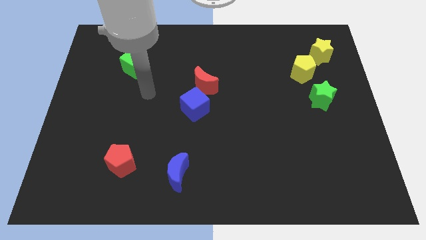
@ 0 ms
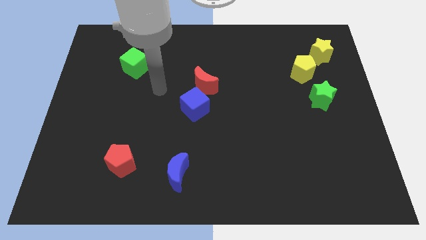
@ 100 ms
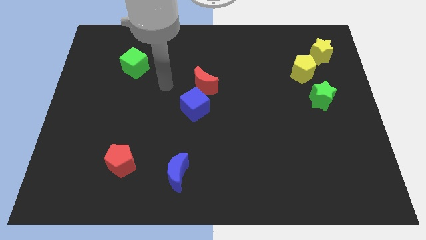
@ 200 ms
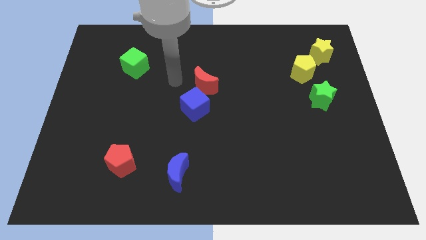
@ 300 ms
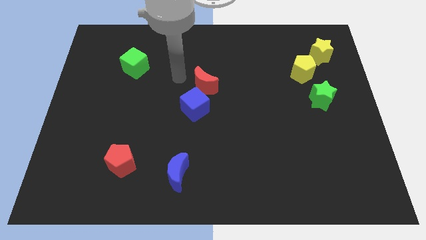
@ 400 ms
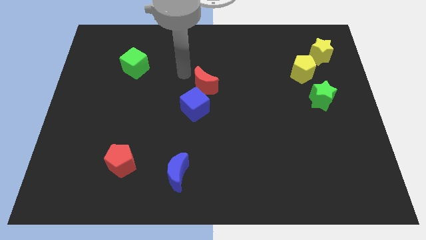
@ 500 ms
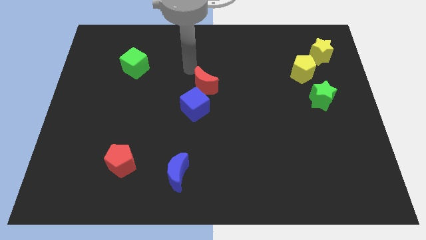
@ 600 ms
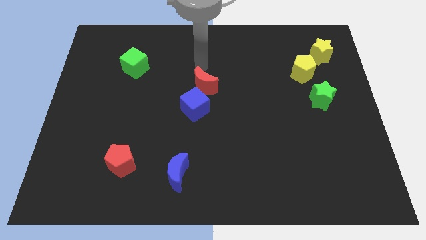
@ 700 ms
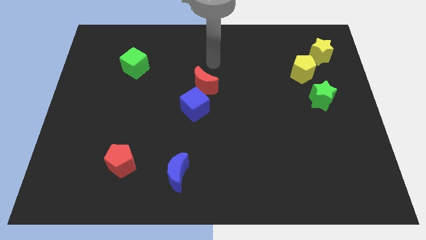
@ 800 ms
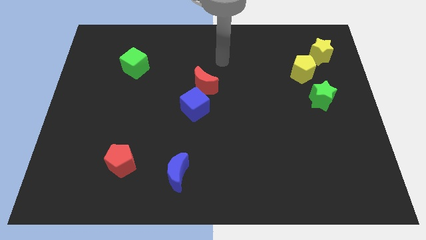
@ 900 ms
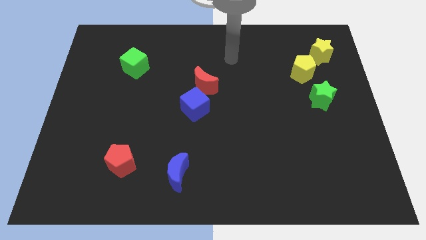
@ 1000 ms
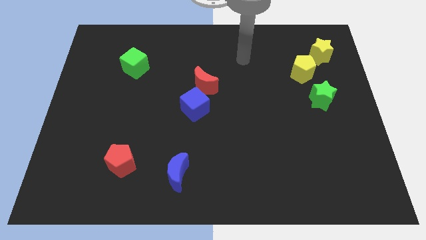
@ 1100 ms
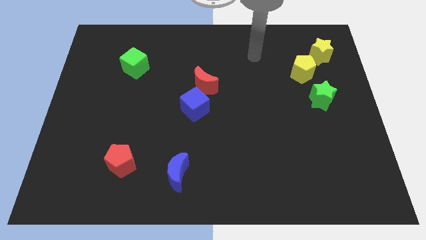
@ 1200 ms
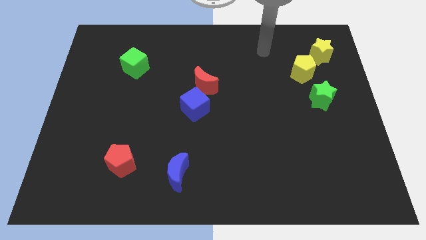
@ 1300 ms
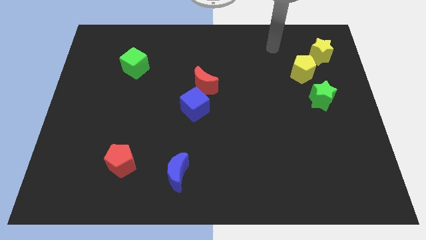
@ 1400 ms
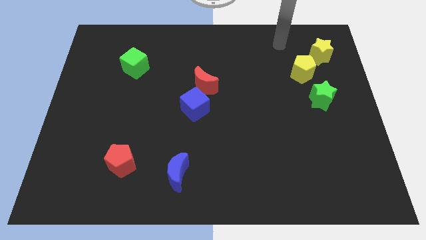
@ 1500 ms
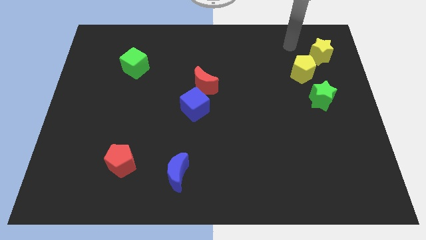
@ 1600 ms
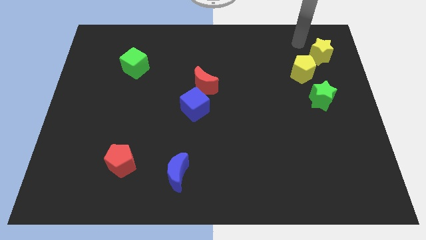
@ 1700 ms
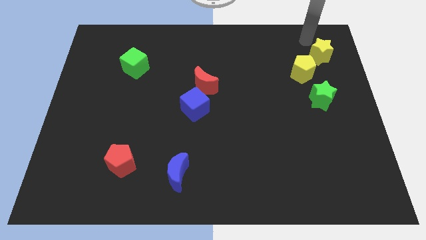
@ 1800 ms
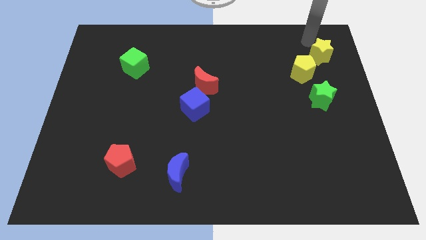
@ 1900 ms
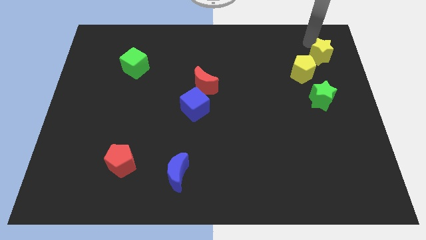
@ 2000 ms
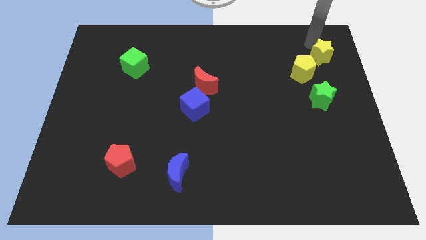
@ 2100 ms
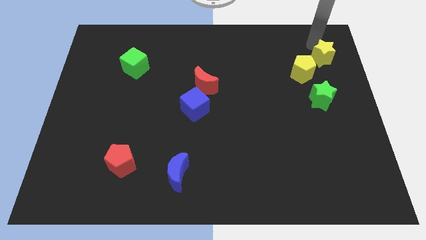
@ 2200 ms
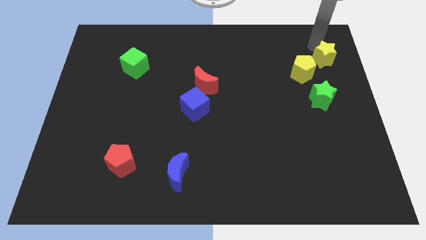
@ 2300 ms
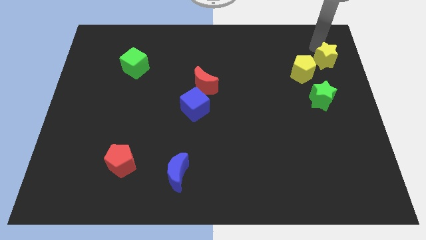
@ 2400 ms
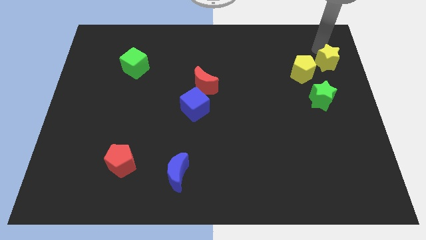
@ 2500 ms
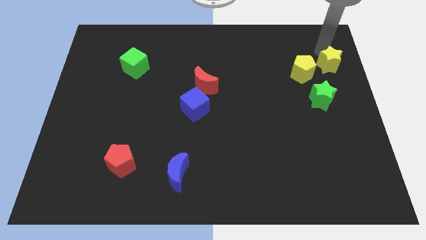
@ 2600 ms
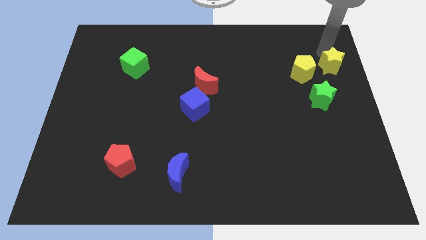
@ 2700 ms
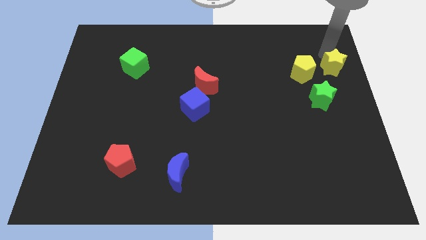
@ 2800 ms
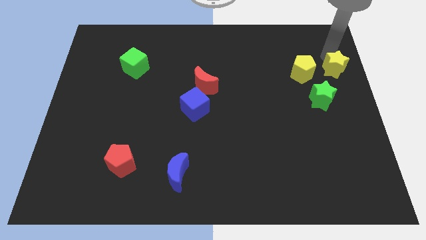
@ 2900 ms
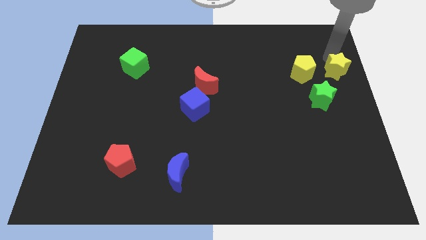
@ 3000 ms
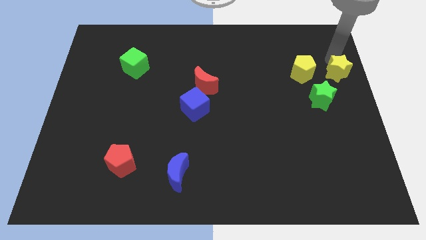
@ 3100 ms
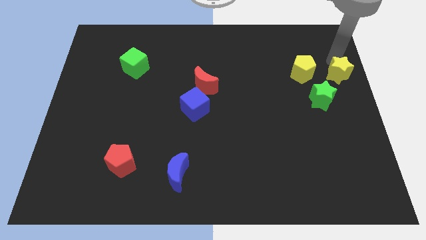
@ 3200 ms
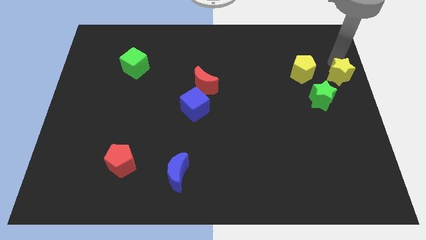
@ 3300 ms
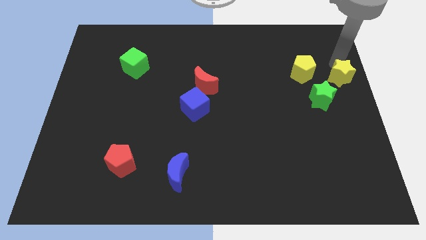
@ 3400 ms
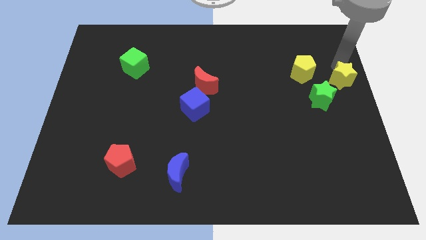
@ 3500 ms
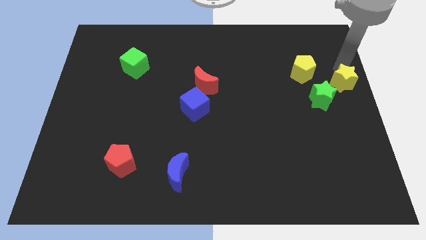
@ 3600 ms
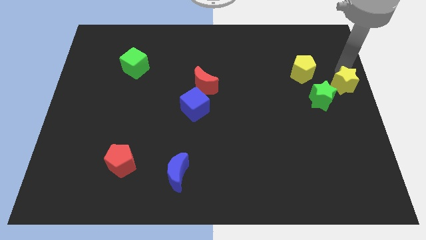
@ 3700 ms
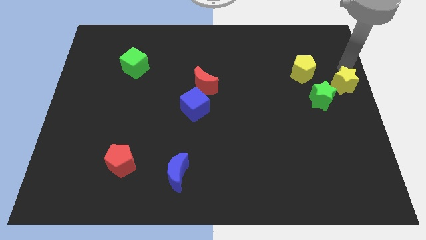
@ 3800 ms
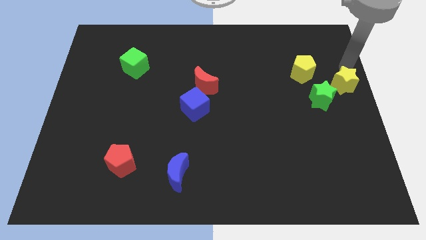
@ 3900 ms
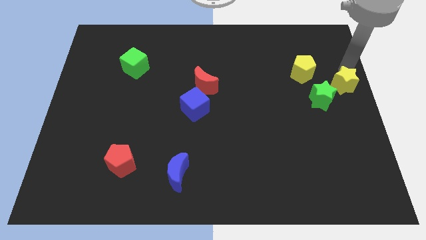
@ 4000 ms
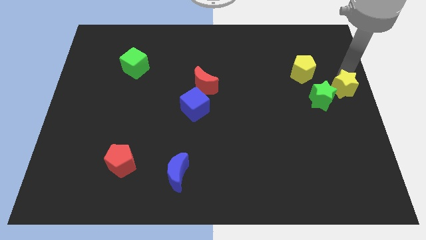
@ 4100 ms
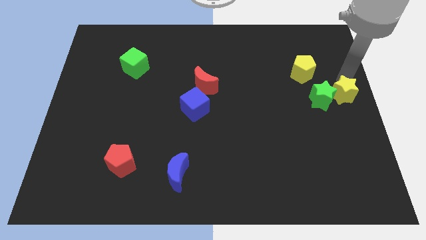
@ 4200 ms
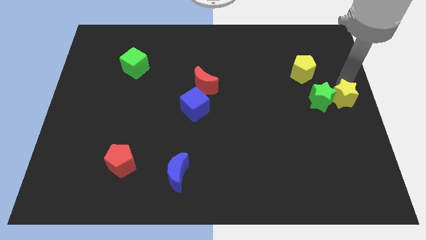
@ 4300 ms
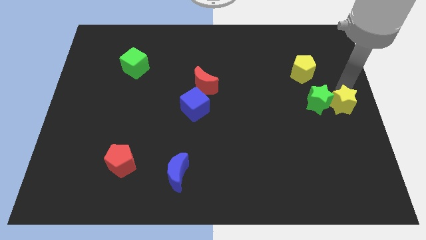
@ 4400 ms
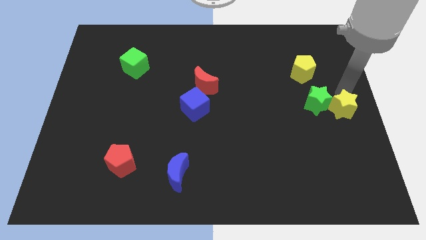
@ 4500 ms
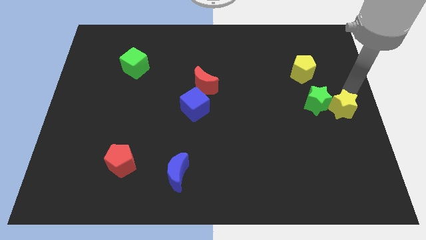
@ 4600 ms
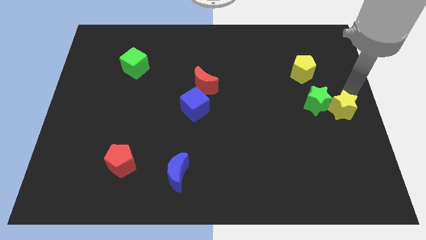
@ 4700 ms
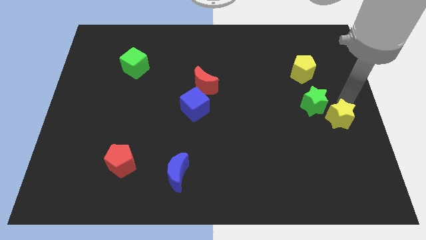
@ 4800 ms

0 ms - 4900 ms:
move the yellow star to the bottom side of the green star

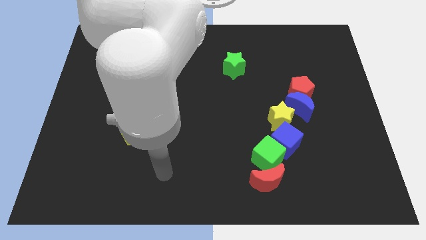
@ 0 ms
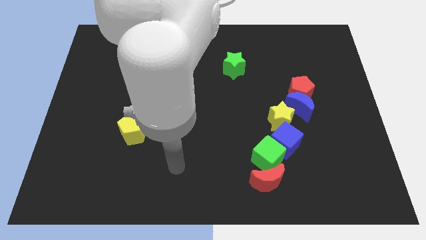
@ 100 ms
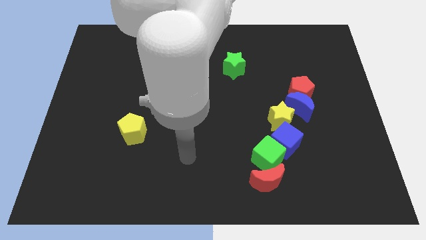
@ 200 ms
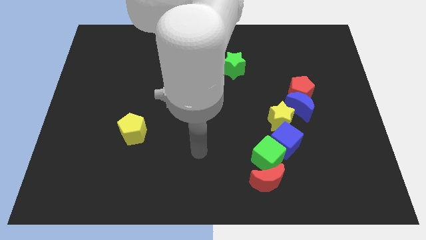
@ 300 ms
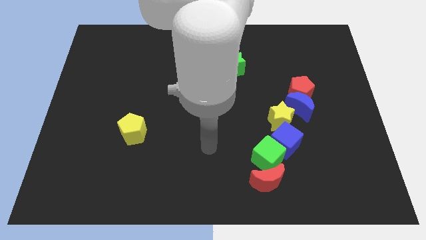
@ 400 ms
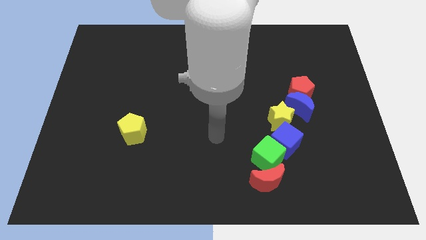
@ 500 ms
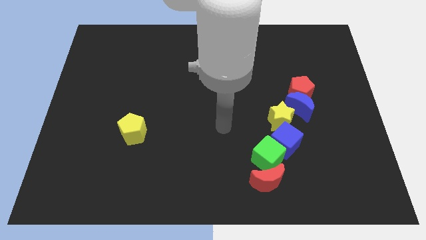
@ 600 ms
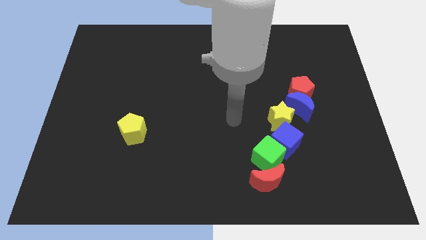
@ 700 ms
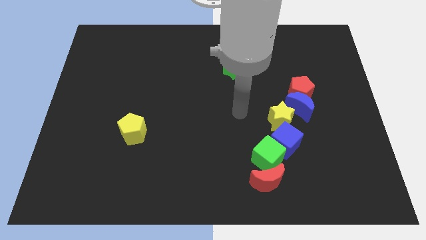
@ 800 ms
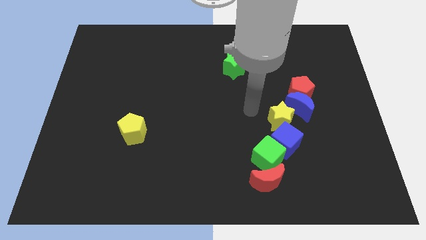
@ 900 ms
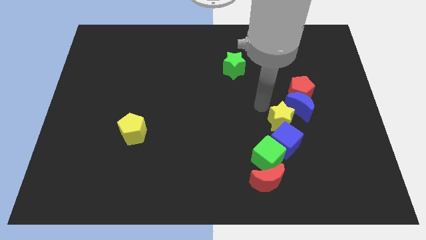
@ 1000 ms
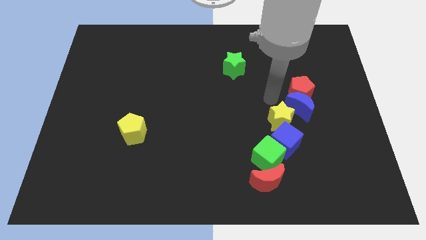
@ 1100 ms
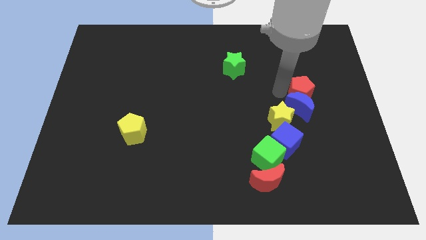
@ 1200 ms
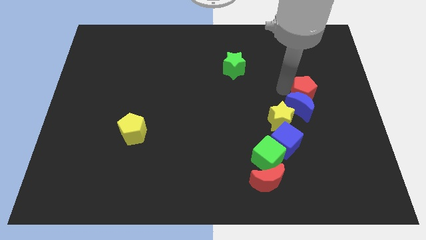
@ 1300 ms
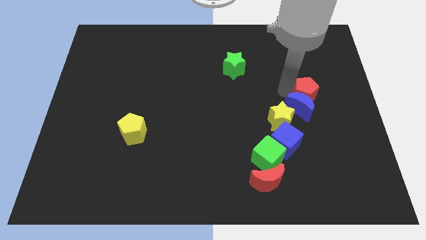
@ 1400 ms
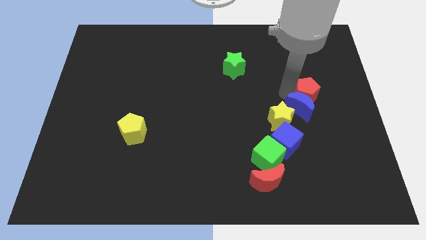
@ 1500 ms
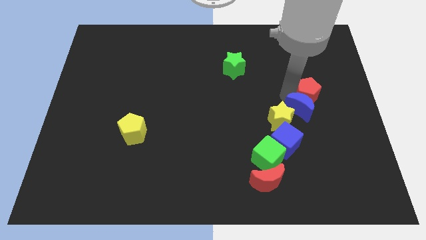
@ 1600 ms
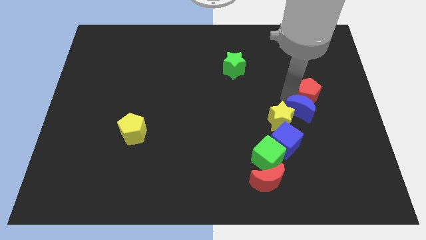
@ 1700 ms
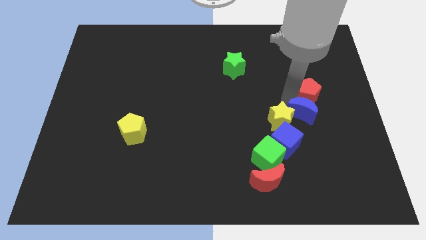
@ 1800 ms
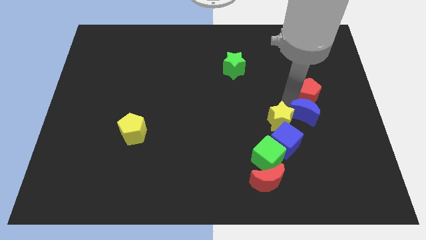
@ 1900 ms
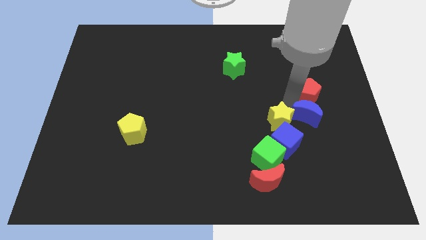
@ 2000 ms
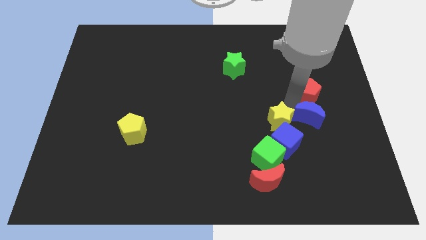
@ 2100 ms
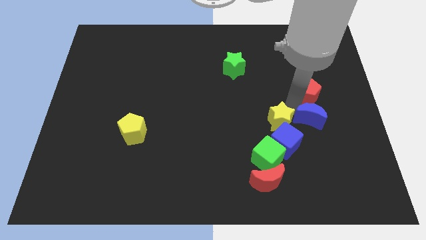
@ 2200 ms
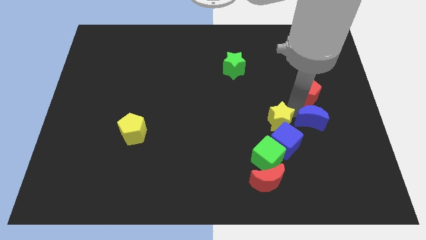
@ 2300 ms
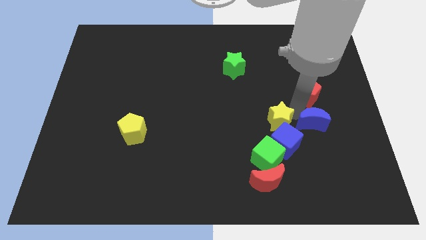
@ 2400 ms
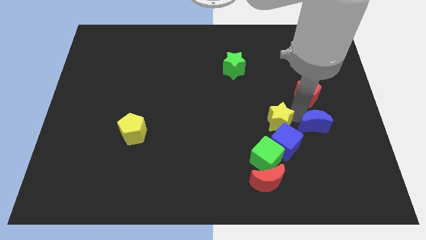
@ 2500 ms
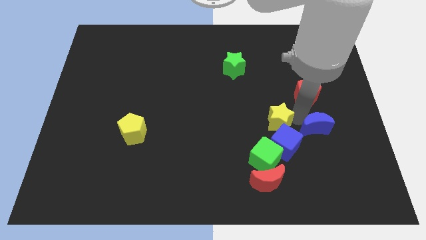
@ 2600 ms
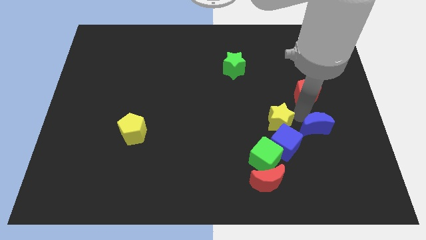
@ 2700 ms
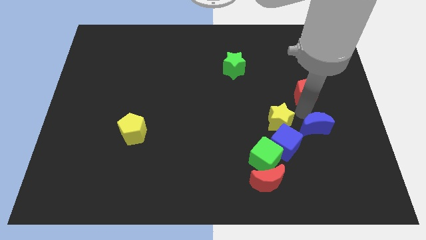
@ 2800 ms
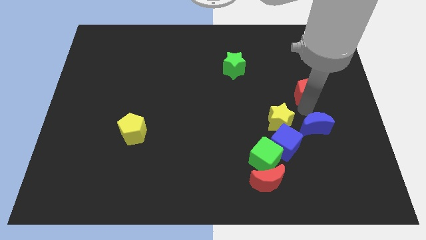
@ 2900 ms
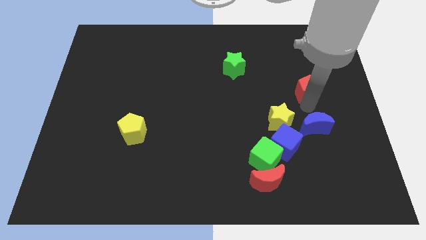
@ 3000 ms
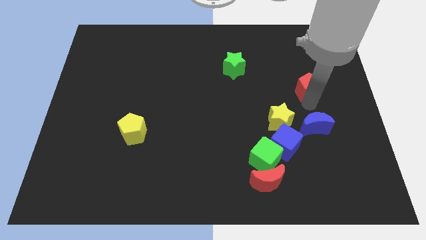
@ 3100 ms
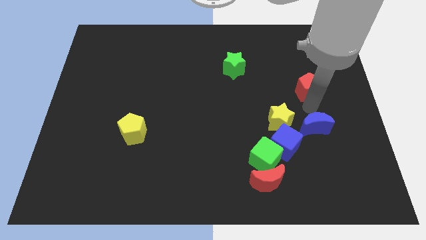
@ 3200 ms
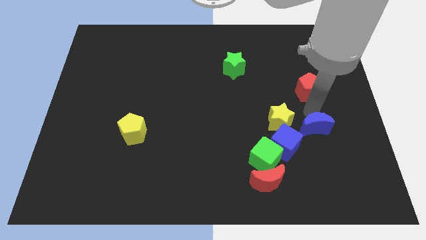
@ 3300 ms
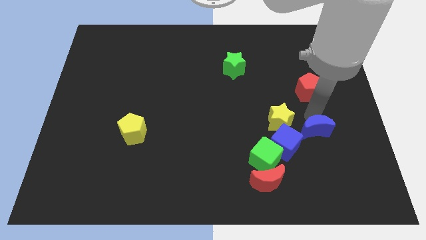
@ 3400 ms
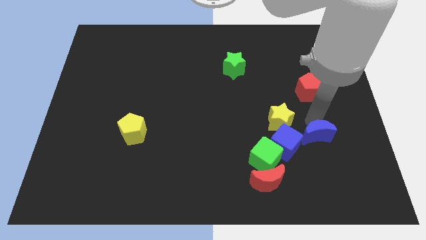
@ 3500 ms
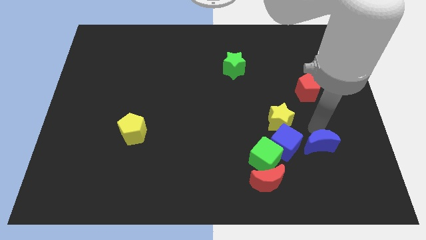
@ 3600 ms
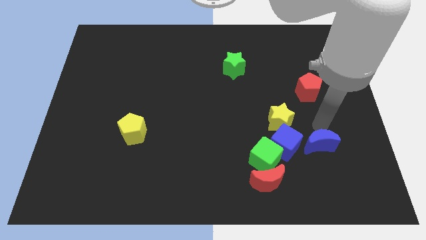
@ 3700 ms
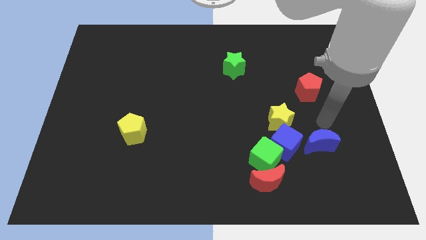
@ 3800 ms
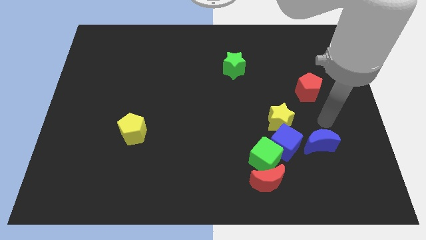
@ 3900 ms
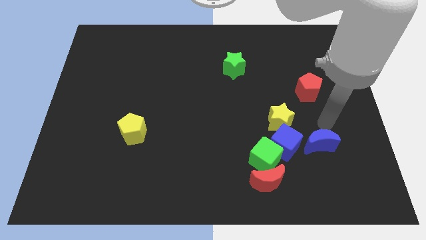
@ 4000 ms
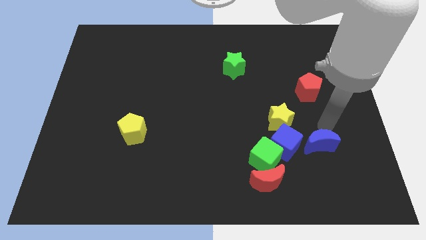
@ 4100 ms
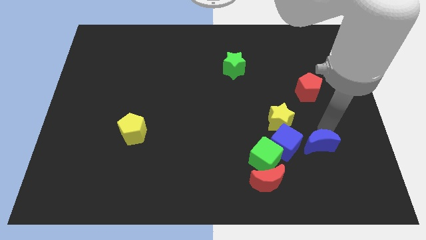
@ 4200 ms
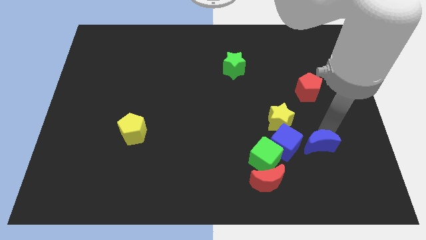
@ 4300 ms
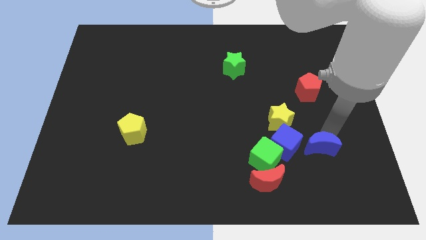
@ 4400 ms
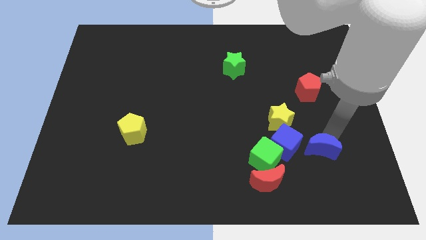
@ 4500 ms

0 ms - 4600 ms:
put the blue moon to the bottom right side of the blue cube
